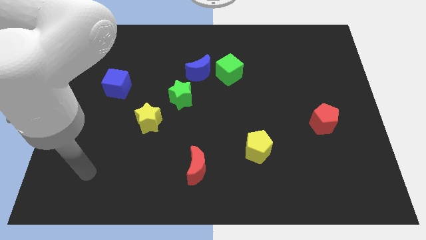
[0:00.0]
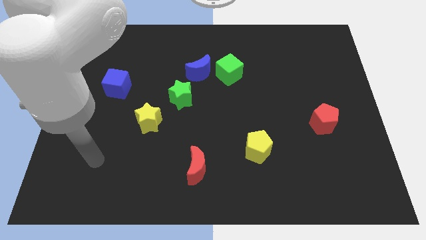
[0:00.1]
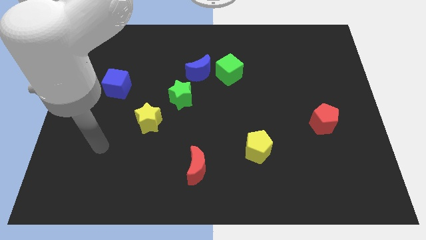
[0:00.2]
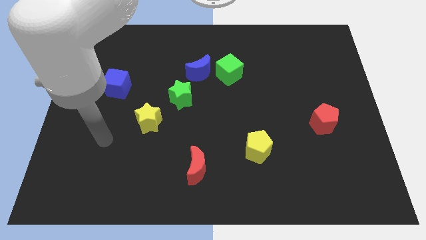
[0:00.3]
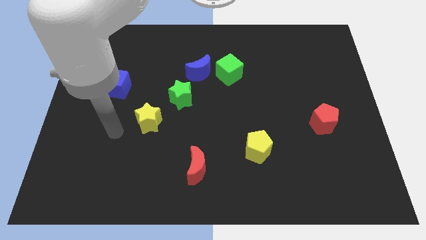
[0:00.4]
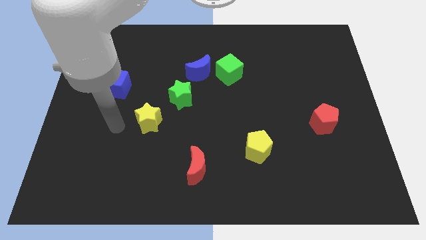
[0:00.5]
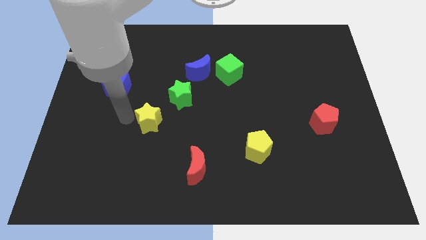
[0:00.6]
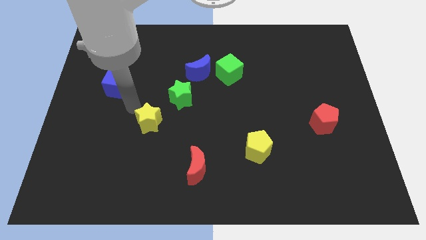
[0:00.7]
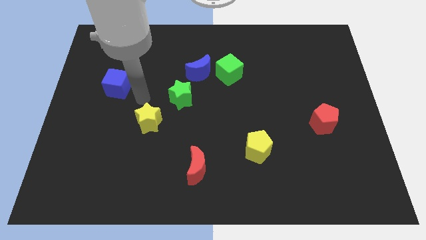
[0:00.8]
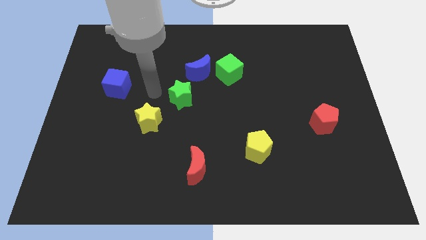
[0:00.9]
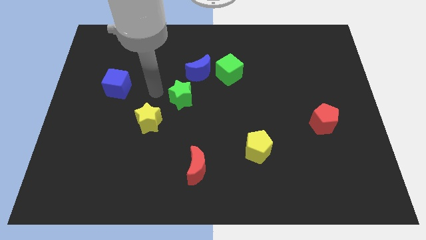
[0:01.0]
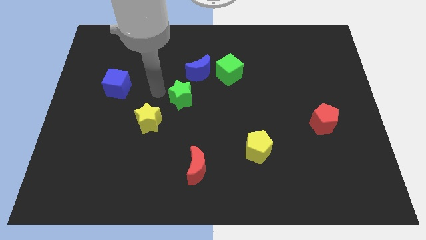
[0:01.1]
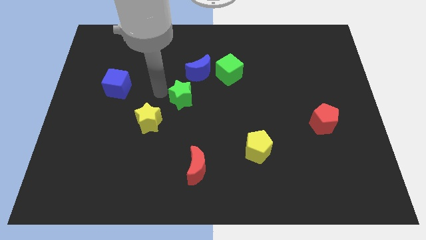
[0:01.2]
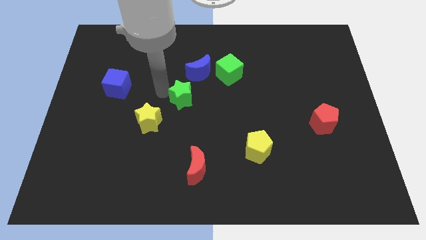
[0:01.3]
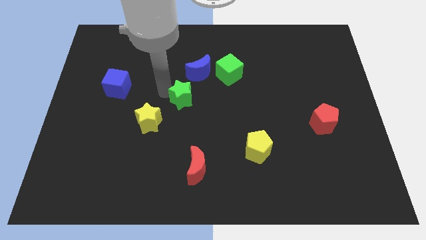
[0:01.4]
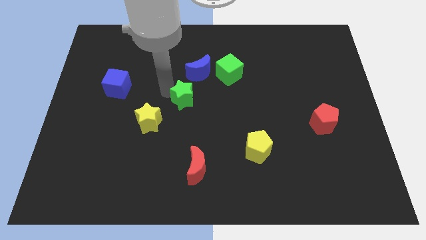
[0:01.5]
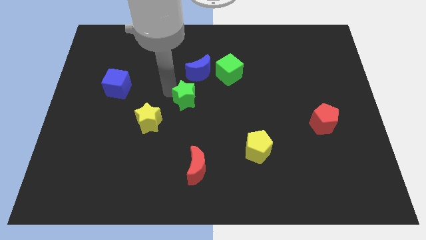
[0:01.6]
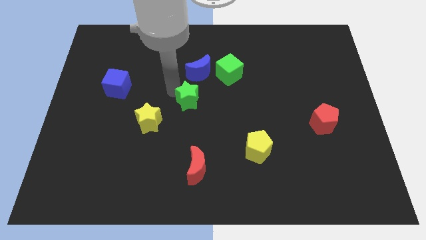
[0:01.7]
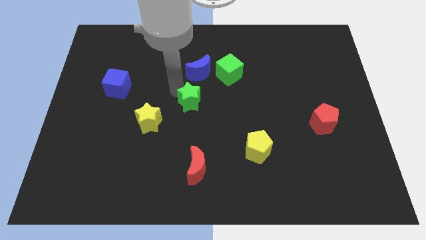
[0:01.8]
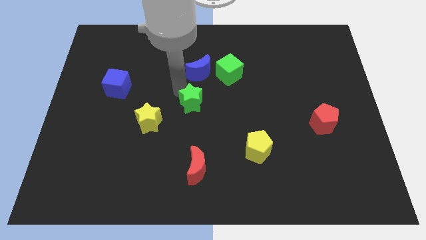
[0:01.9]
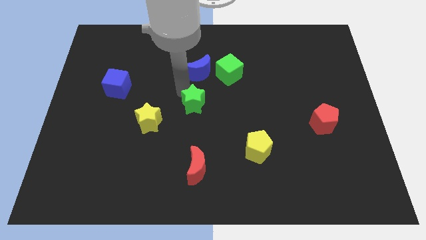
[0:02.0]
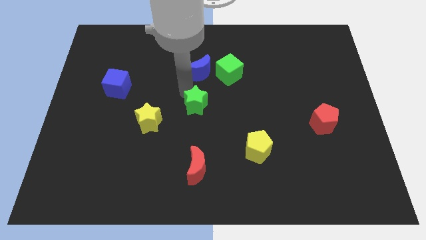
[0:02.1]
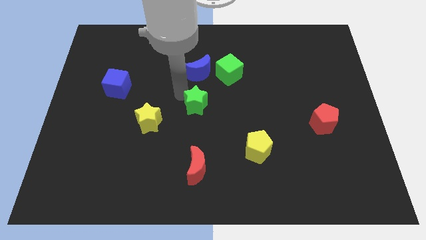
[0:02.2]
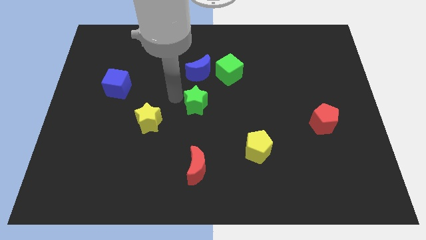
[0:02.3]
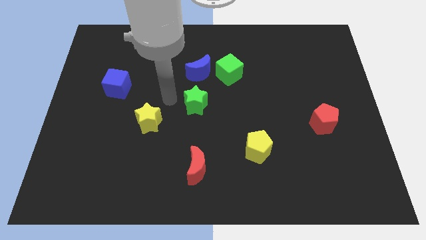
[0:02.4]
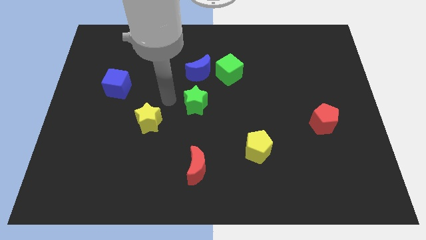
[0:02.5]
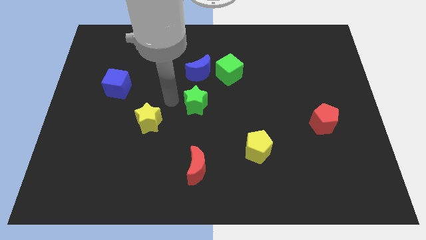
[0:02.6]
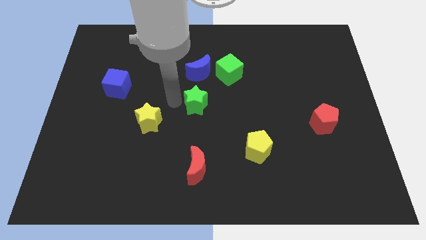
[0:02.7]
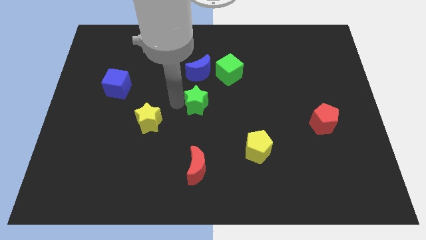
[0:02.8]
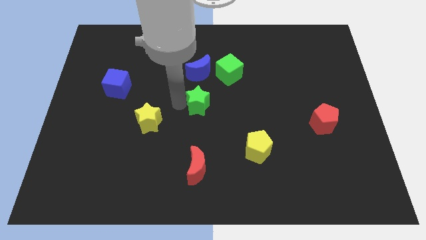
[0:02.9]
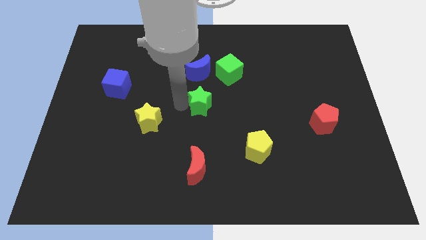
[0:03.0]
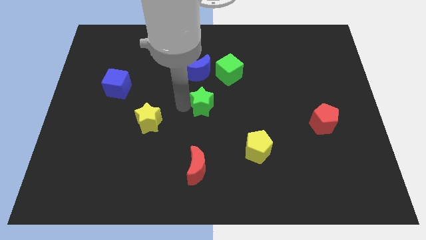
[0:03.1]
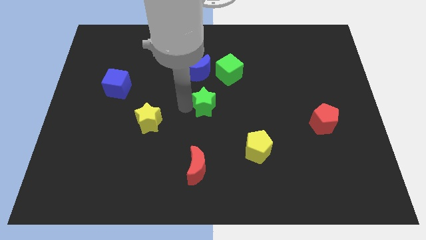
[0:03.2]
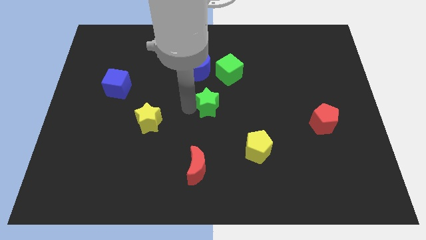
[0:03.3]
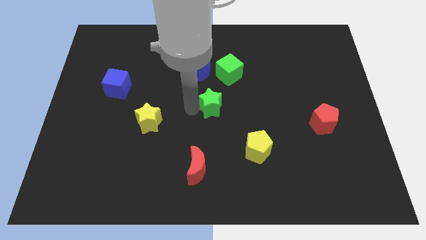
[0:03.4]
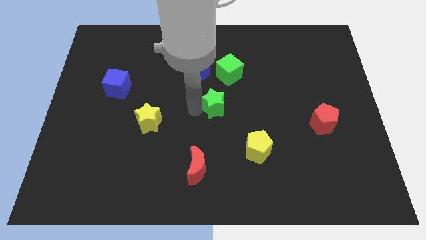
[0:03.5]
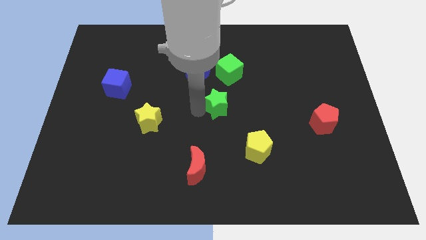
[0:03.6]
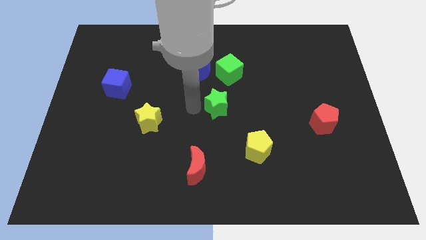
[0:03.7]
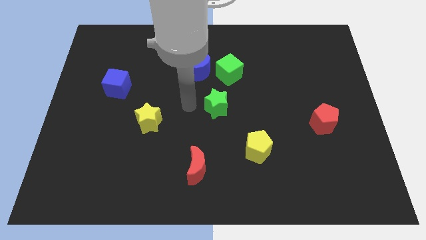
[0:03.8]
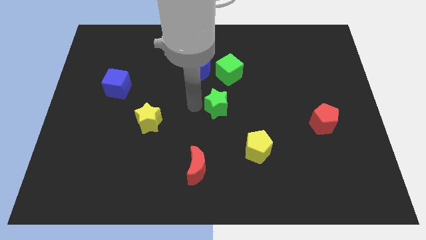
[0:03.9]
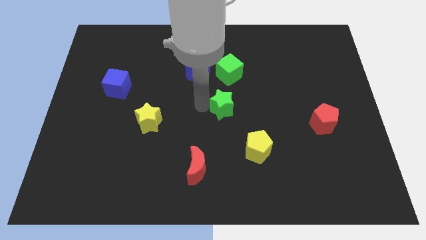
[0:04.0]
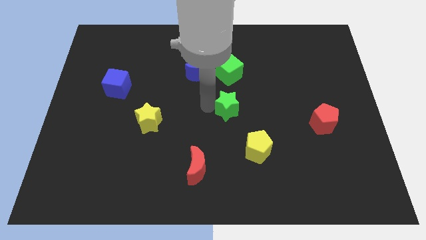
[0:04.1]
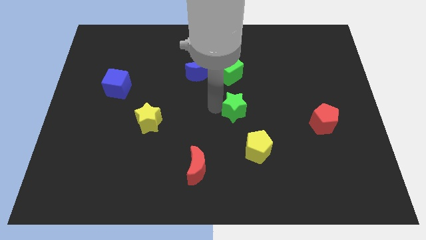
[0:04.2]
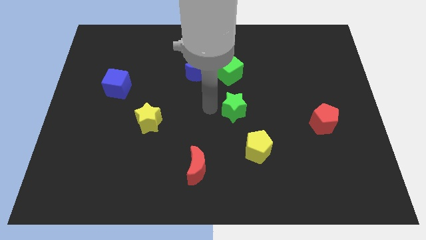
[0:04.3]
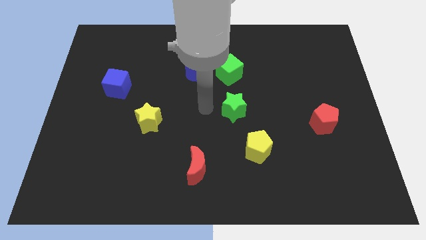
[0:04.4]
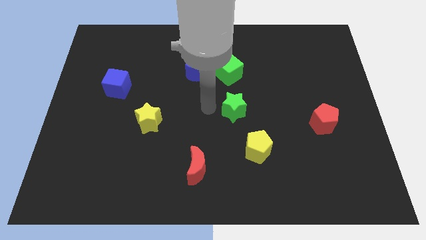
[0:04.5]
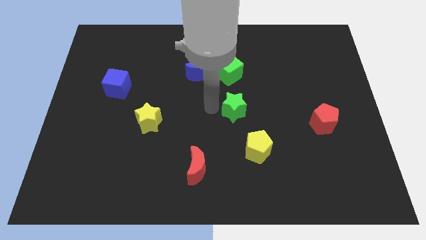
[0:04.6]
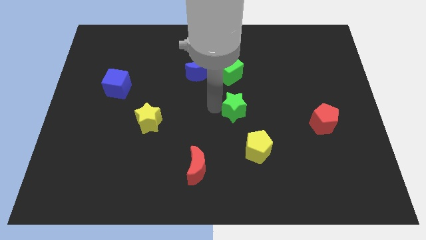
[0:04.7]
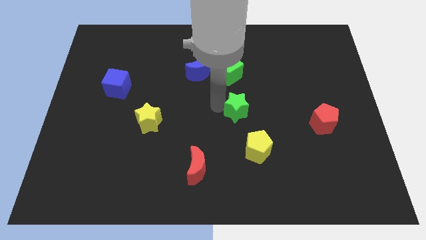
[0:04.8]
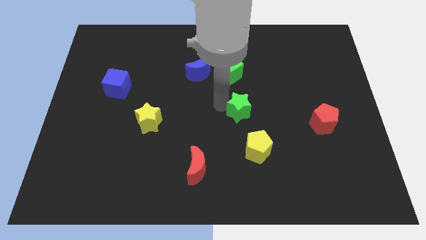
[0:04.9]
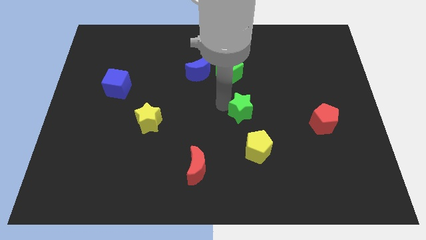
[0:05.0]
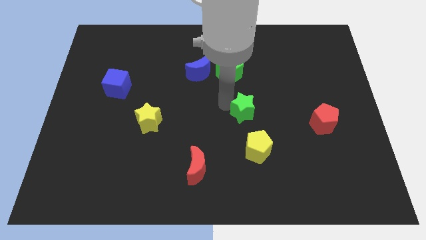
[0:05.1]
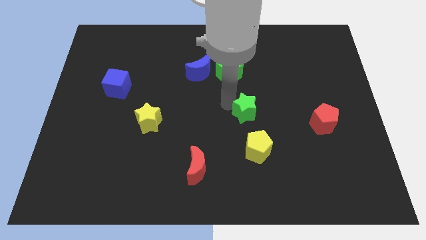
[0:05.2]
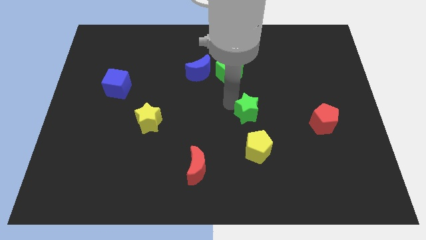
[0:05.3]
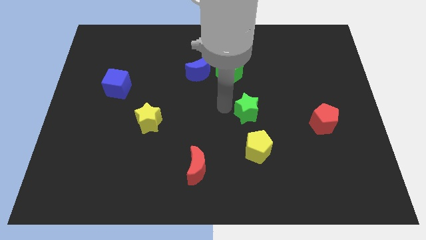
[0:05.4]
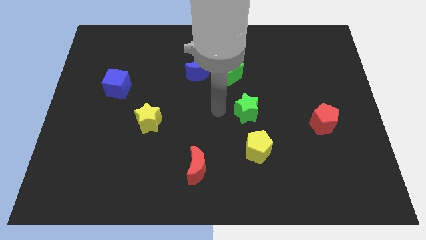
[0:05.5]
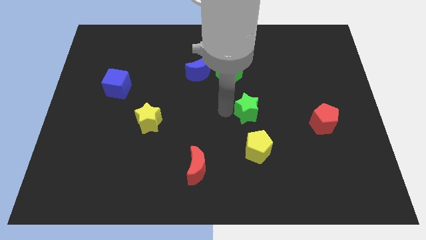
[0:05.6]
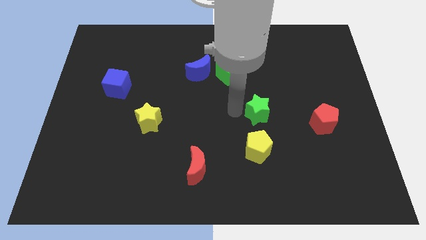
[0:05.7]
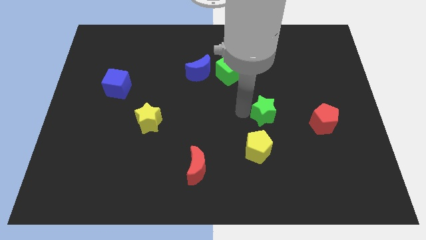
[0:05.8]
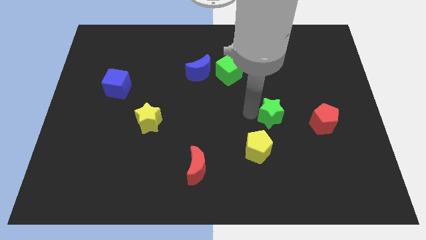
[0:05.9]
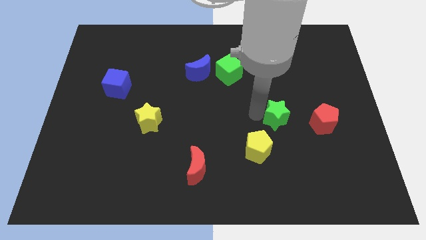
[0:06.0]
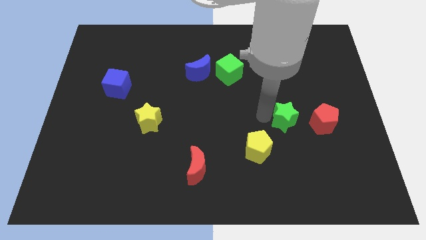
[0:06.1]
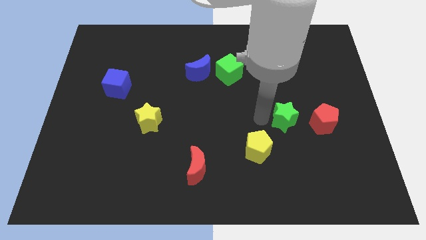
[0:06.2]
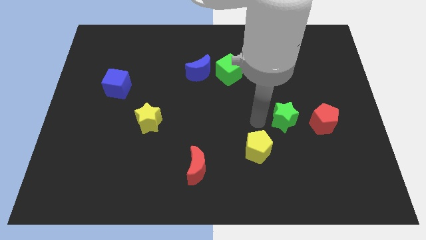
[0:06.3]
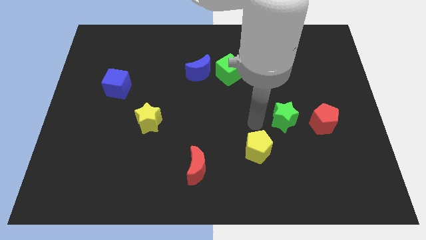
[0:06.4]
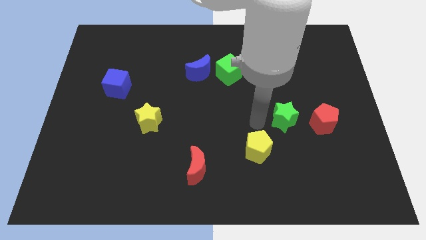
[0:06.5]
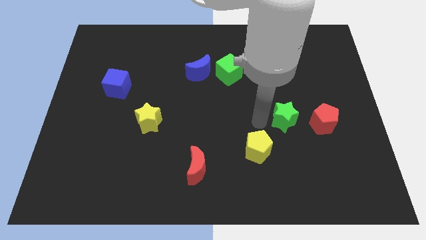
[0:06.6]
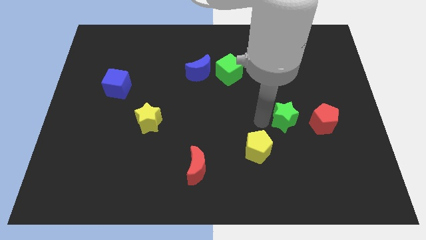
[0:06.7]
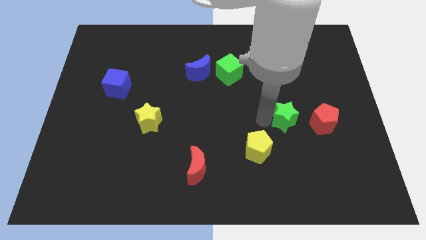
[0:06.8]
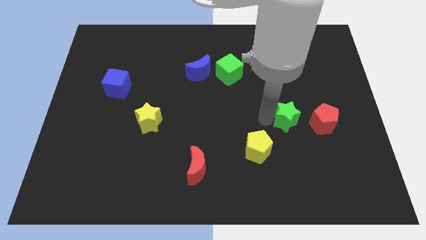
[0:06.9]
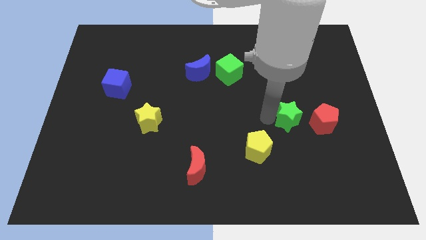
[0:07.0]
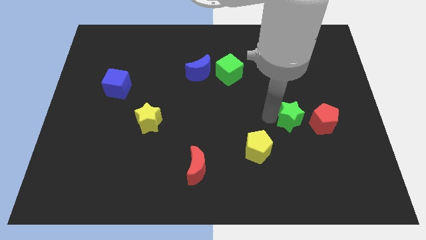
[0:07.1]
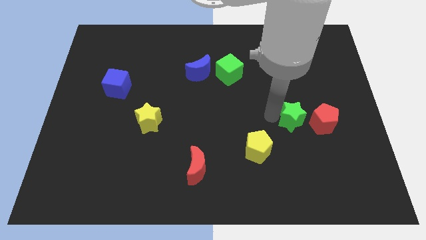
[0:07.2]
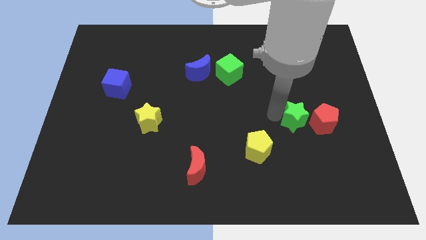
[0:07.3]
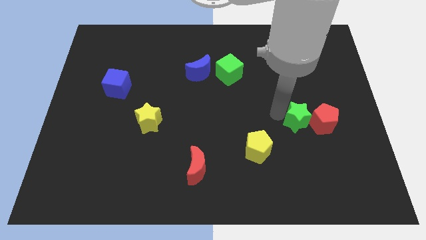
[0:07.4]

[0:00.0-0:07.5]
put the green star next to the red pentagon

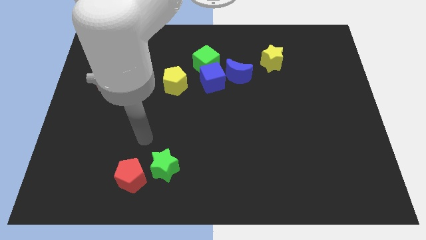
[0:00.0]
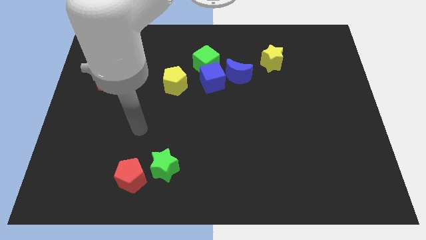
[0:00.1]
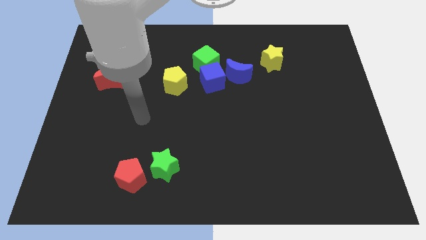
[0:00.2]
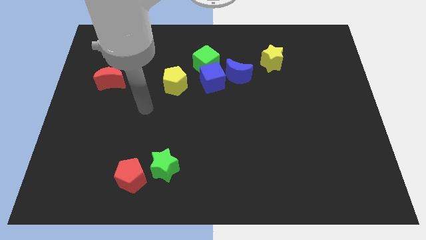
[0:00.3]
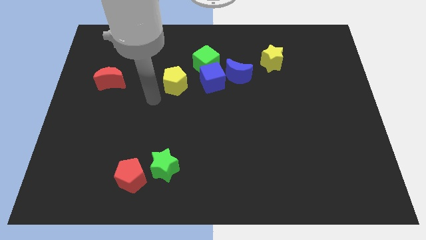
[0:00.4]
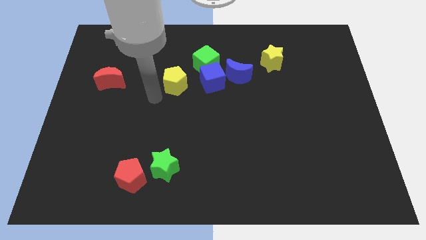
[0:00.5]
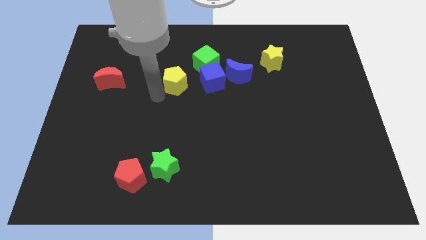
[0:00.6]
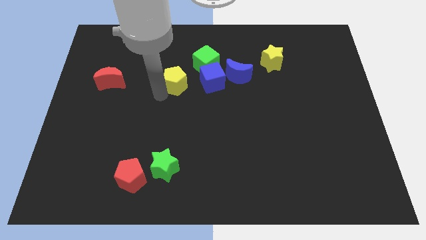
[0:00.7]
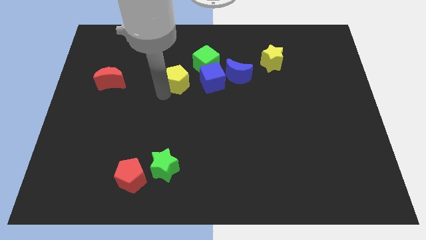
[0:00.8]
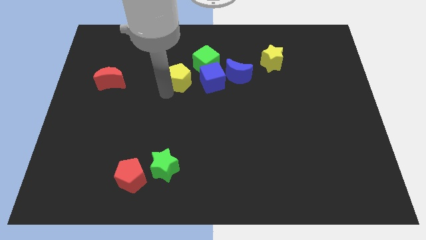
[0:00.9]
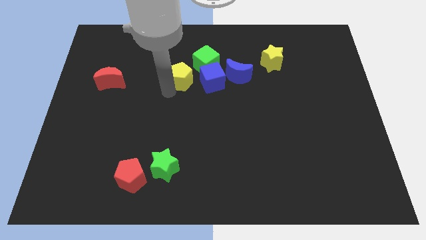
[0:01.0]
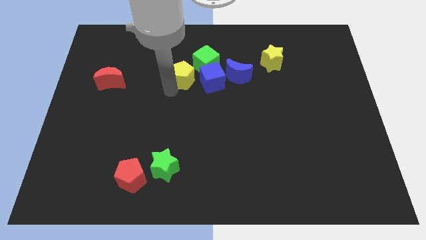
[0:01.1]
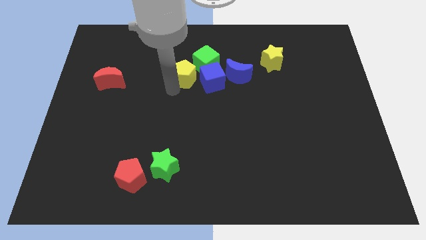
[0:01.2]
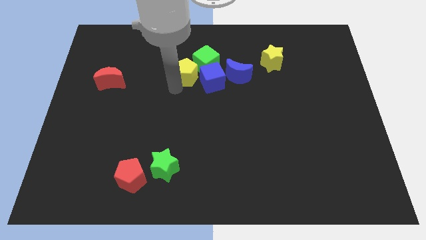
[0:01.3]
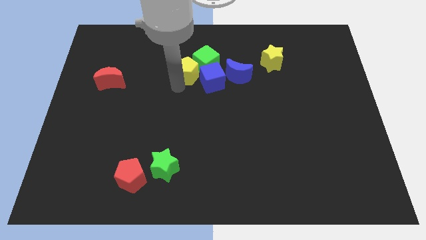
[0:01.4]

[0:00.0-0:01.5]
move the yellow pentagon to the green cube
